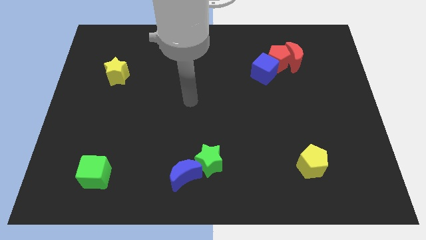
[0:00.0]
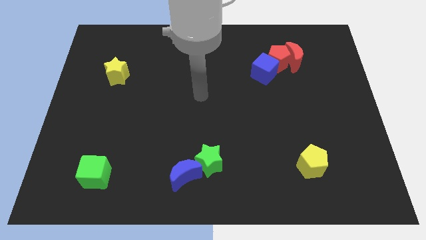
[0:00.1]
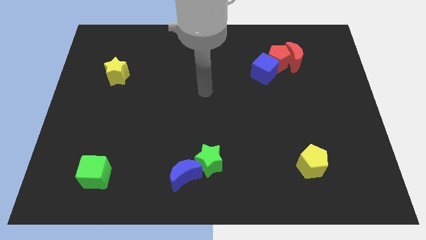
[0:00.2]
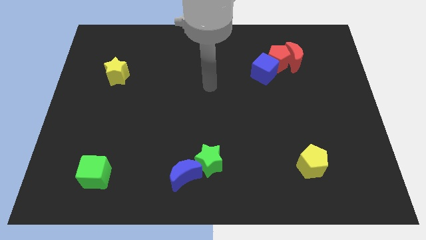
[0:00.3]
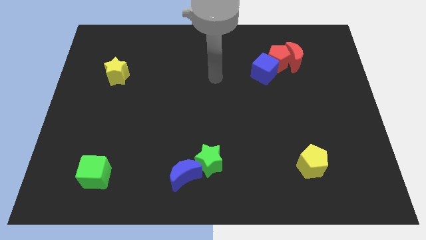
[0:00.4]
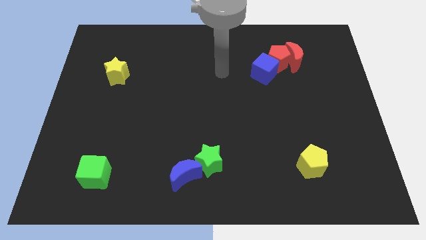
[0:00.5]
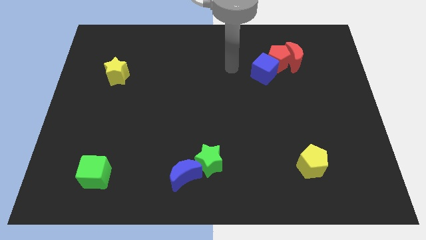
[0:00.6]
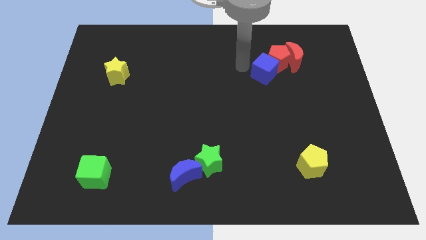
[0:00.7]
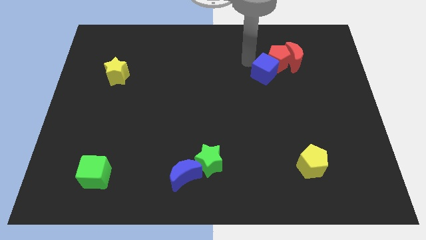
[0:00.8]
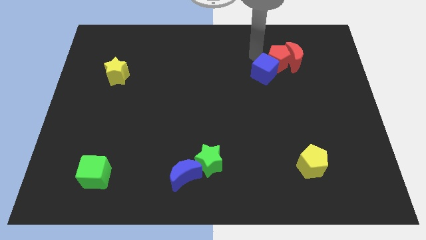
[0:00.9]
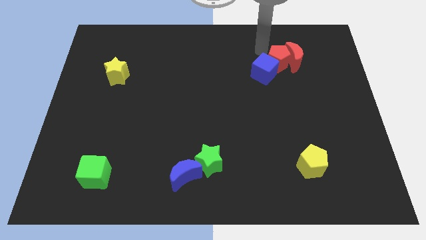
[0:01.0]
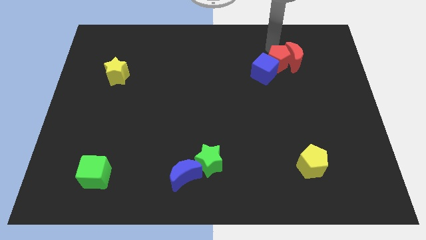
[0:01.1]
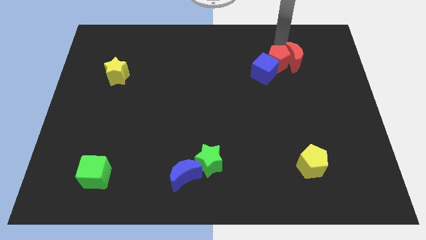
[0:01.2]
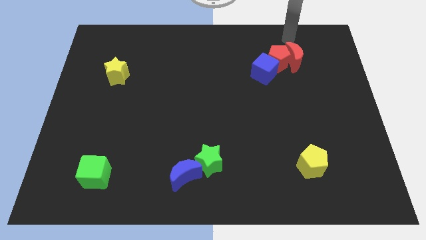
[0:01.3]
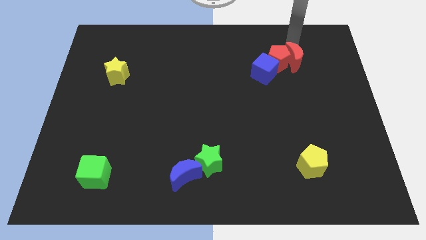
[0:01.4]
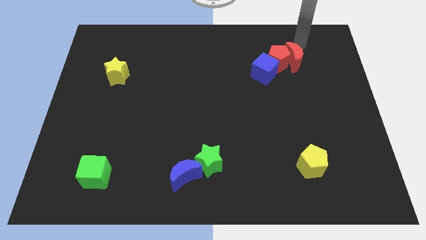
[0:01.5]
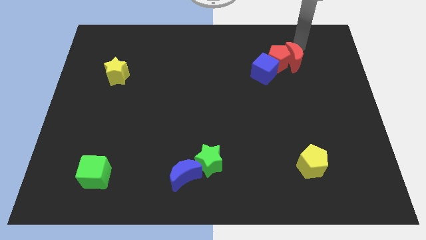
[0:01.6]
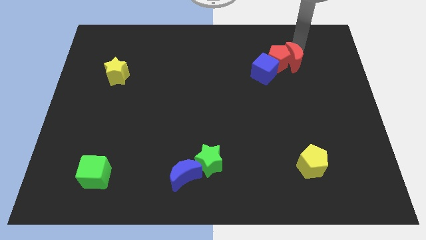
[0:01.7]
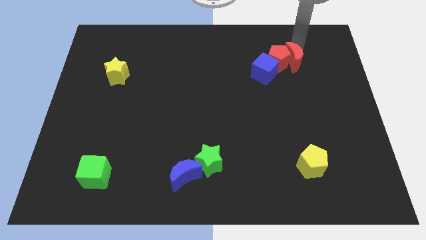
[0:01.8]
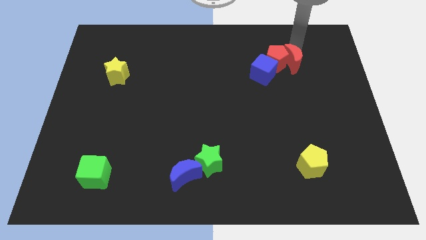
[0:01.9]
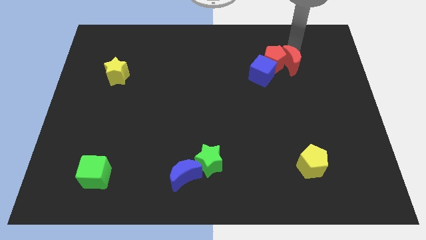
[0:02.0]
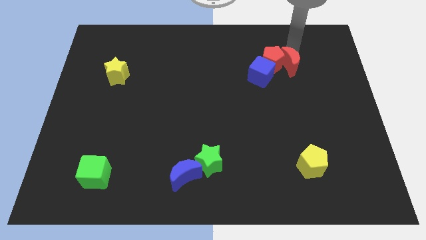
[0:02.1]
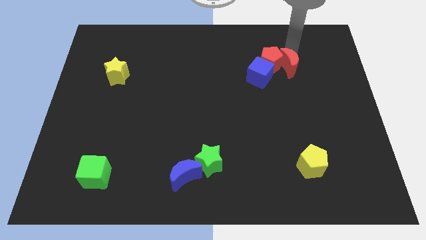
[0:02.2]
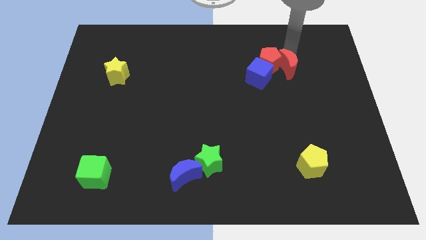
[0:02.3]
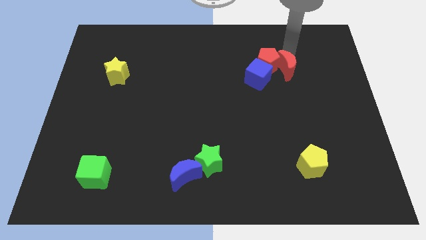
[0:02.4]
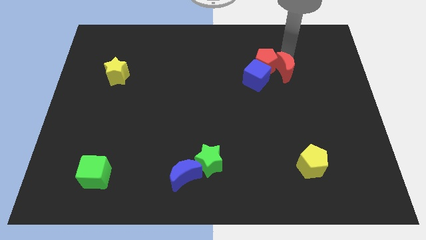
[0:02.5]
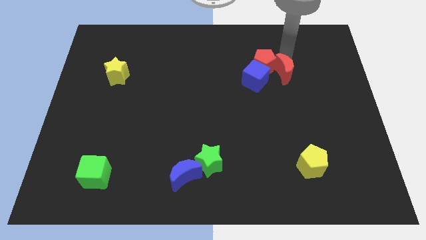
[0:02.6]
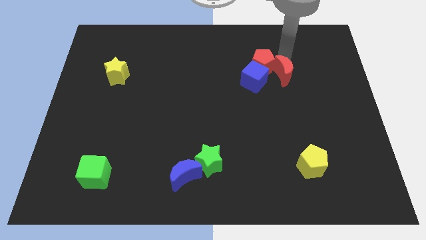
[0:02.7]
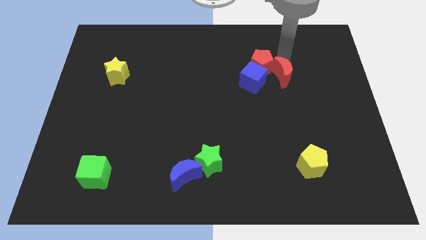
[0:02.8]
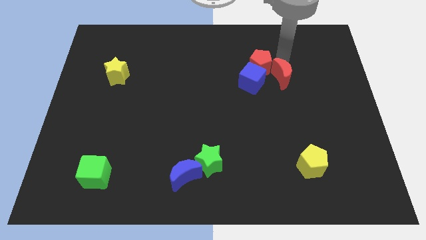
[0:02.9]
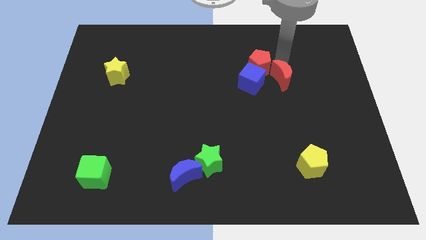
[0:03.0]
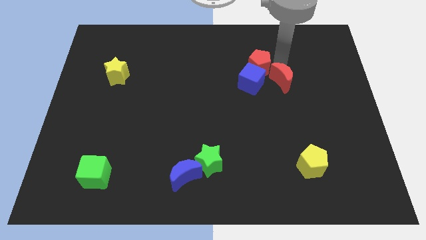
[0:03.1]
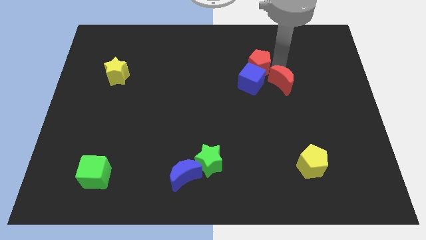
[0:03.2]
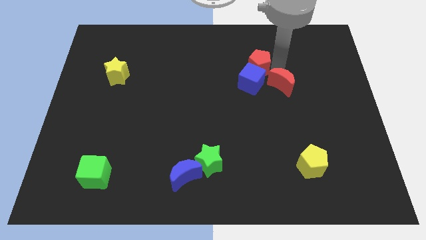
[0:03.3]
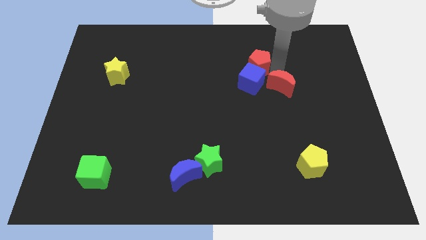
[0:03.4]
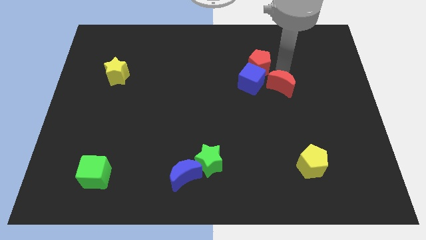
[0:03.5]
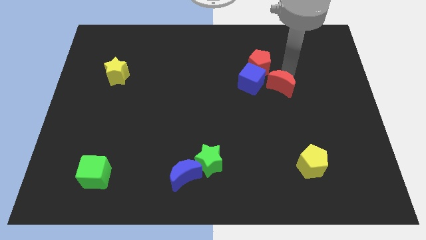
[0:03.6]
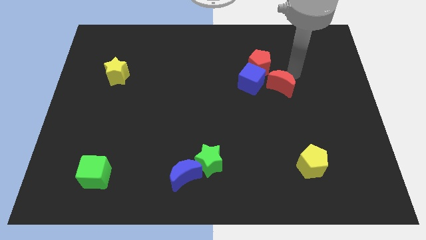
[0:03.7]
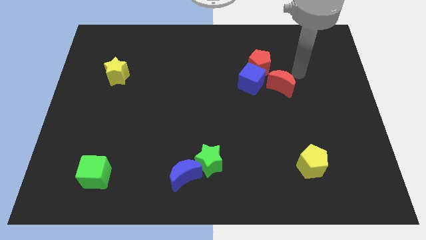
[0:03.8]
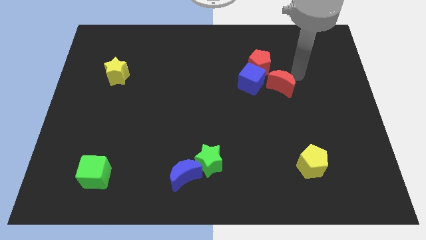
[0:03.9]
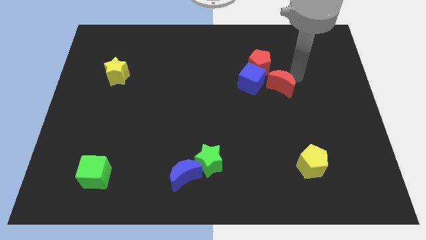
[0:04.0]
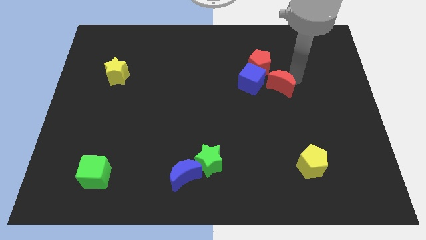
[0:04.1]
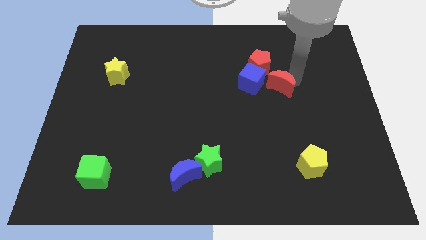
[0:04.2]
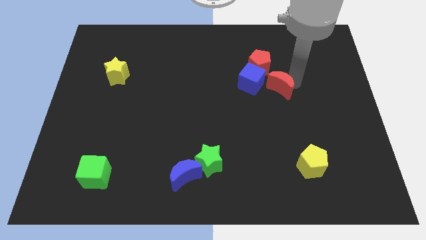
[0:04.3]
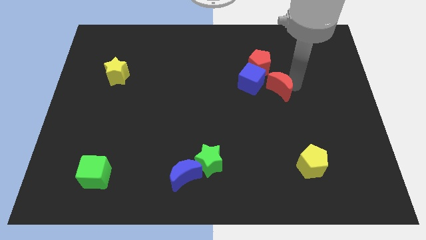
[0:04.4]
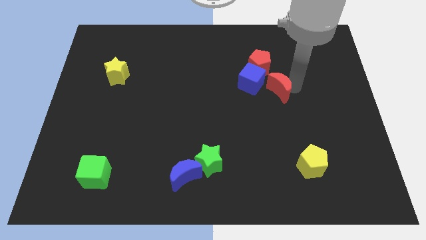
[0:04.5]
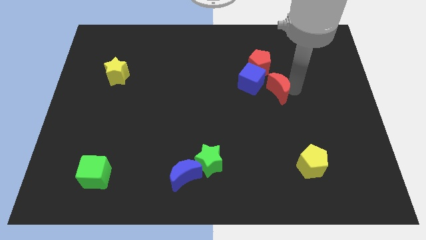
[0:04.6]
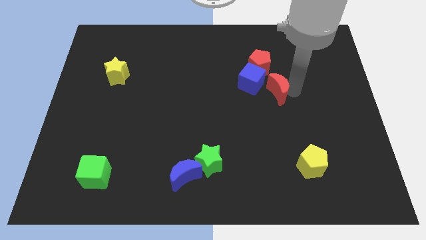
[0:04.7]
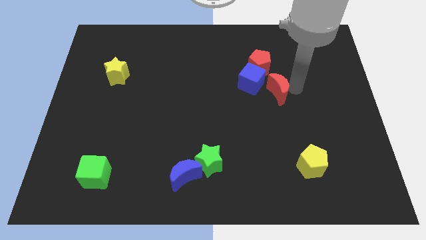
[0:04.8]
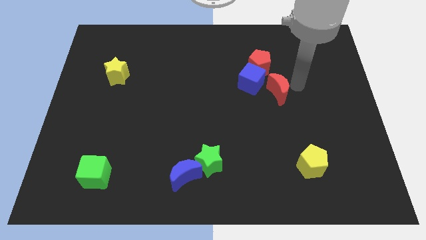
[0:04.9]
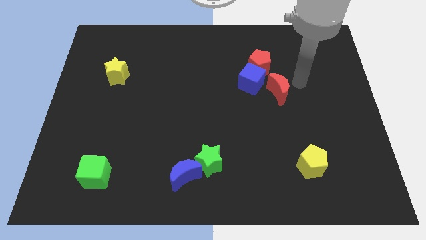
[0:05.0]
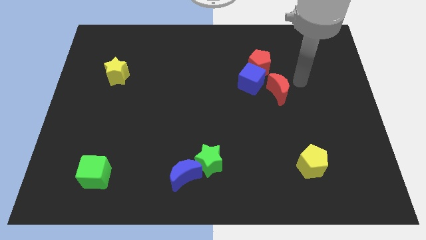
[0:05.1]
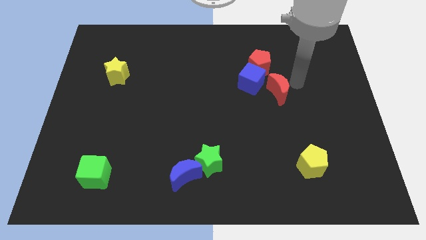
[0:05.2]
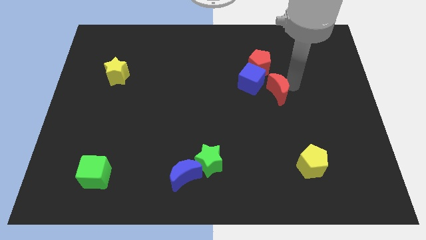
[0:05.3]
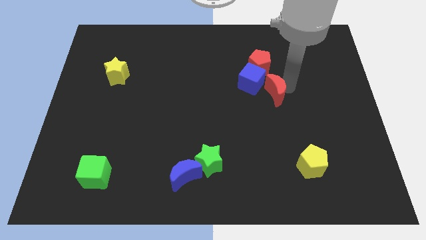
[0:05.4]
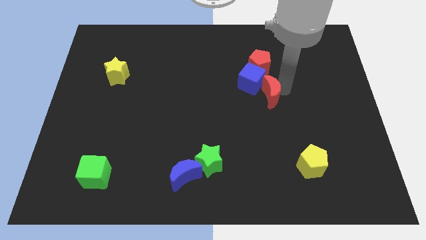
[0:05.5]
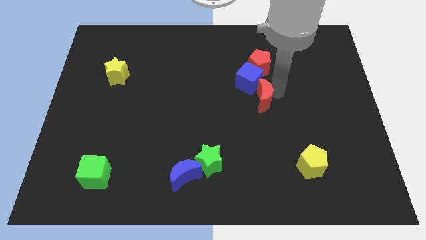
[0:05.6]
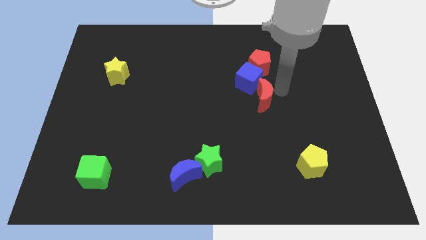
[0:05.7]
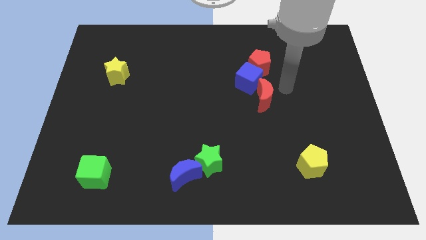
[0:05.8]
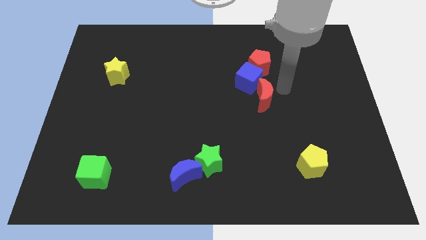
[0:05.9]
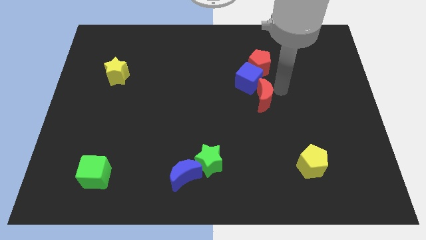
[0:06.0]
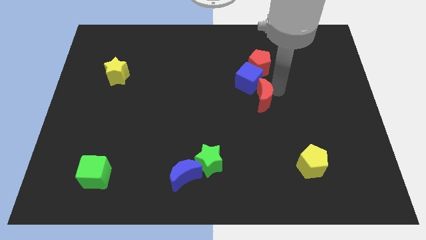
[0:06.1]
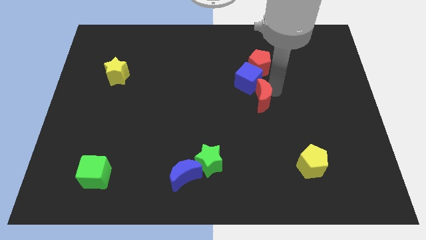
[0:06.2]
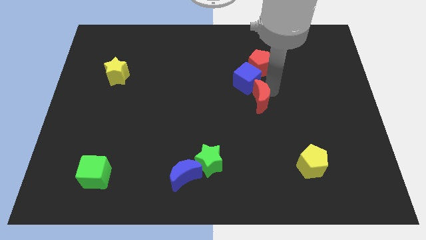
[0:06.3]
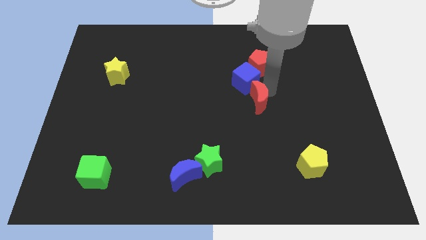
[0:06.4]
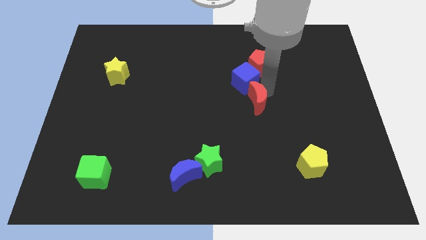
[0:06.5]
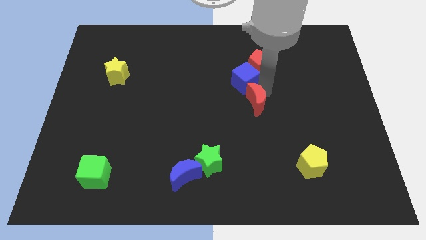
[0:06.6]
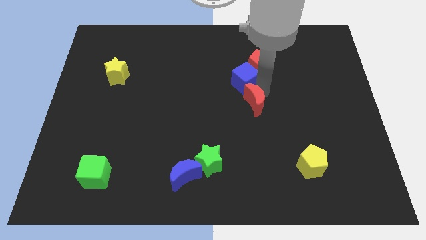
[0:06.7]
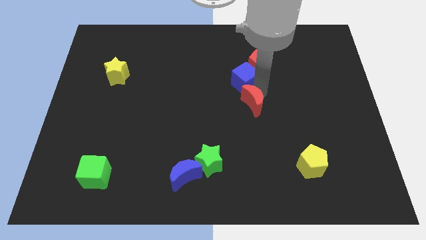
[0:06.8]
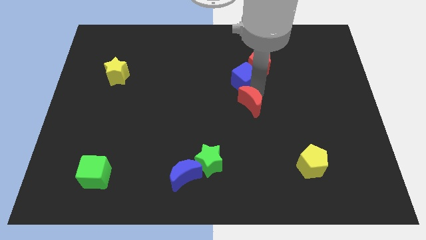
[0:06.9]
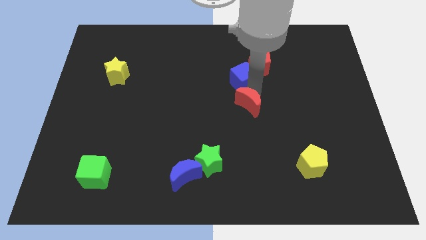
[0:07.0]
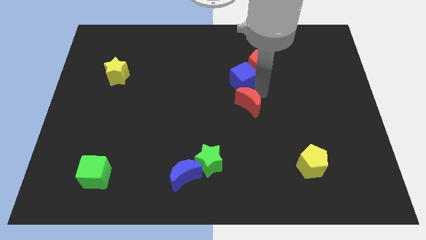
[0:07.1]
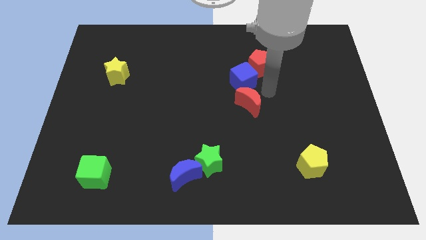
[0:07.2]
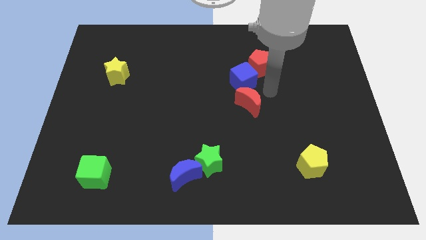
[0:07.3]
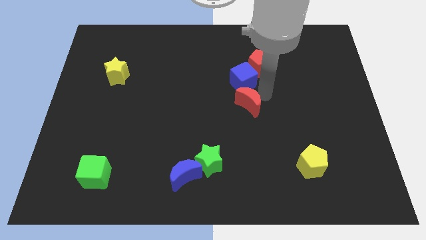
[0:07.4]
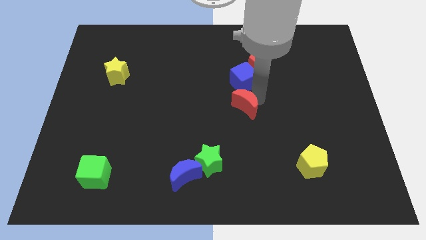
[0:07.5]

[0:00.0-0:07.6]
slide the red moon diagonally downwards and left
